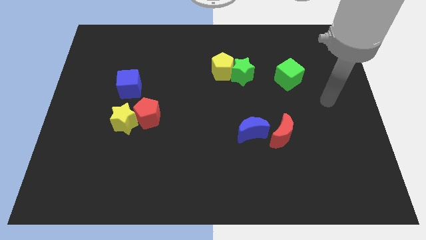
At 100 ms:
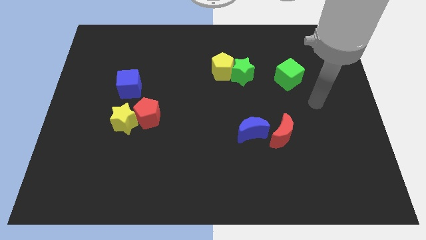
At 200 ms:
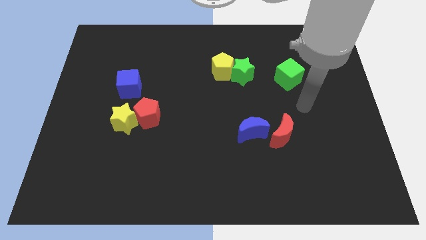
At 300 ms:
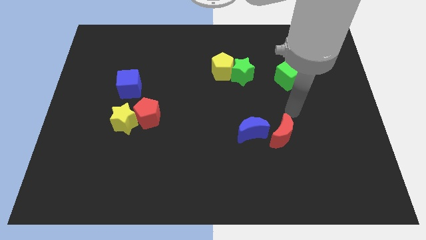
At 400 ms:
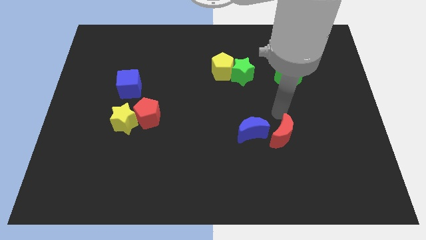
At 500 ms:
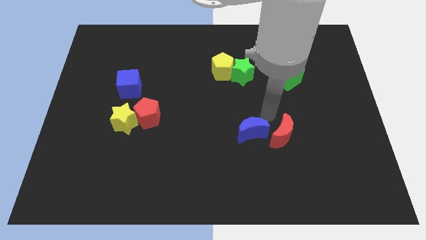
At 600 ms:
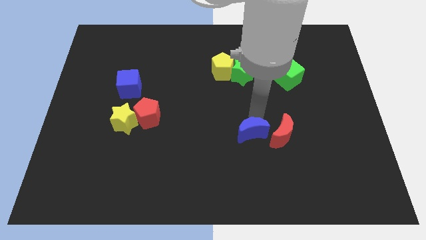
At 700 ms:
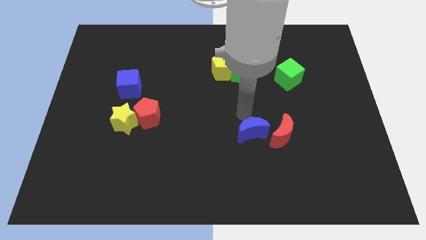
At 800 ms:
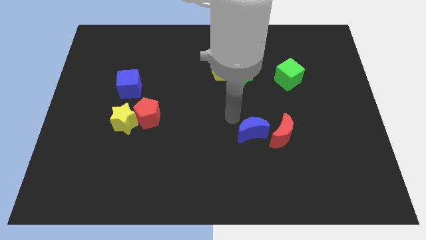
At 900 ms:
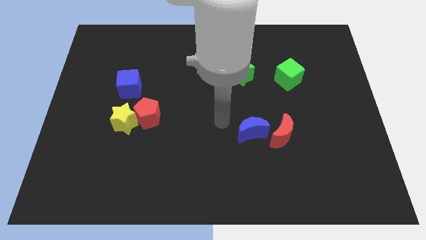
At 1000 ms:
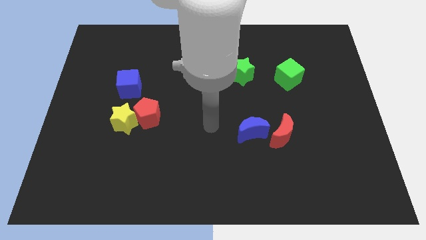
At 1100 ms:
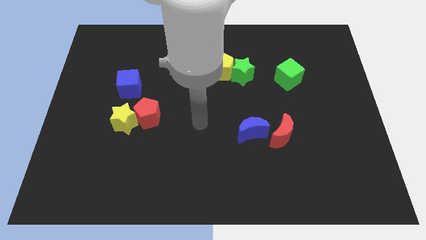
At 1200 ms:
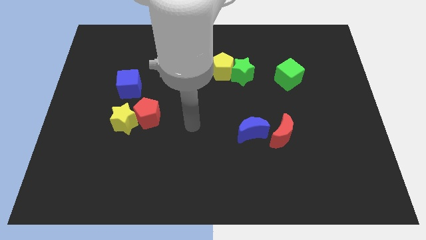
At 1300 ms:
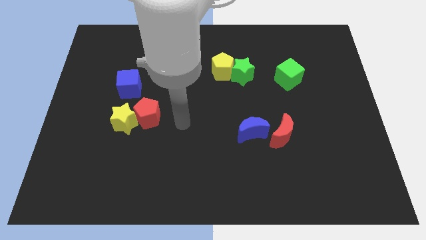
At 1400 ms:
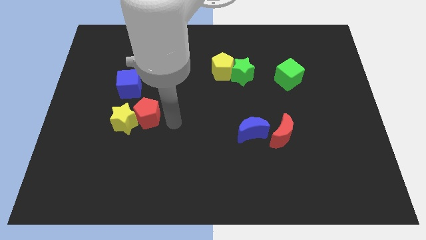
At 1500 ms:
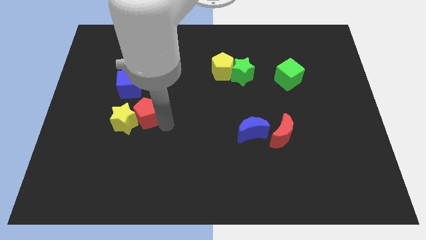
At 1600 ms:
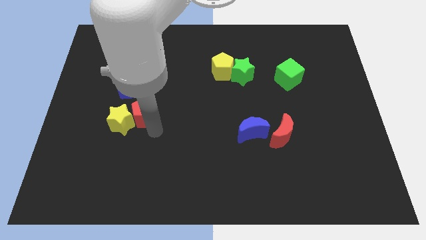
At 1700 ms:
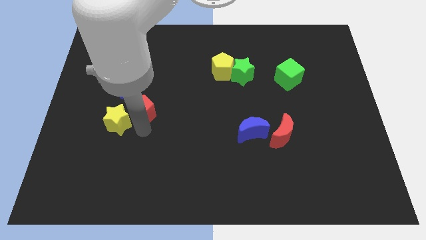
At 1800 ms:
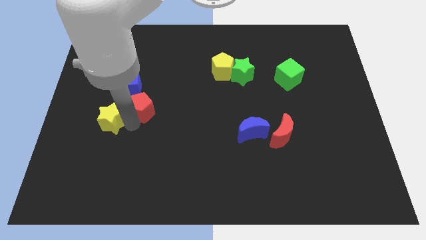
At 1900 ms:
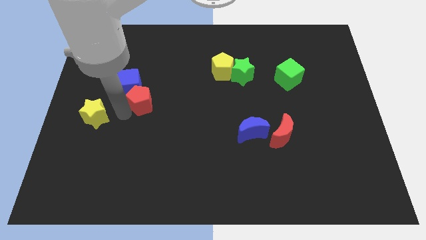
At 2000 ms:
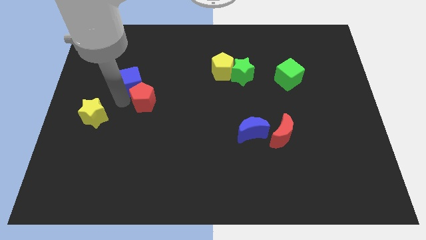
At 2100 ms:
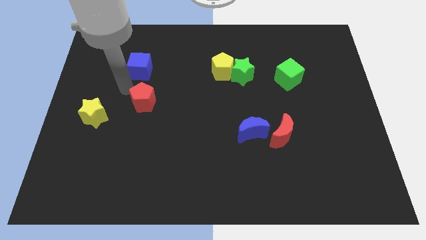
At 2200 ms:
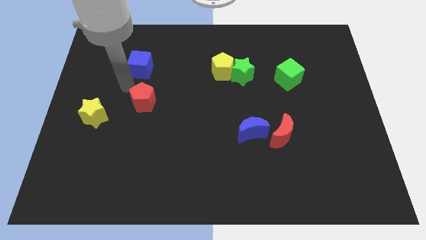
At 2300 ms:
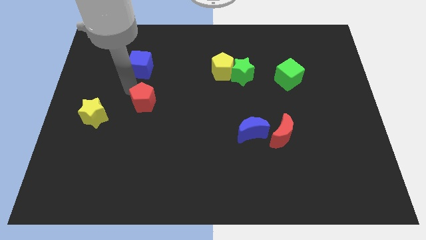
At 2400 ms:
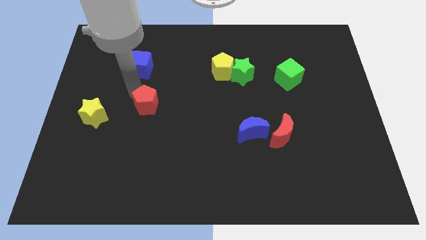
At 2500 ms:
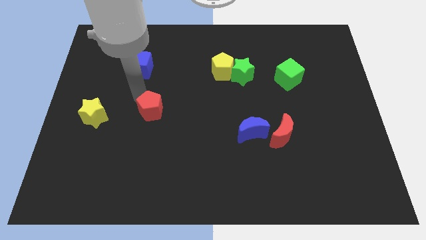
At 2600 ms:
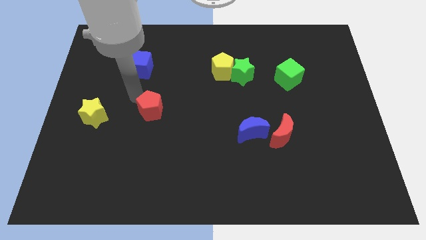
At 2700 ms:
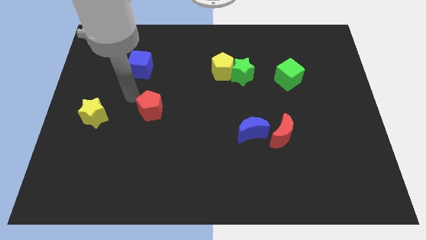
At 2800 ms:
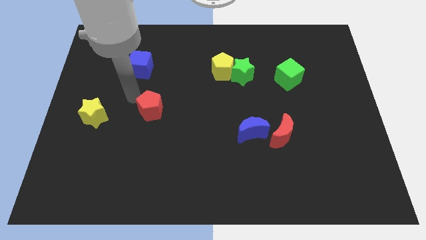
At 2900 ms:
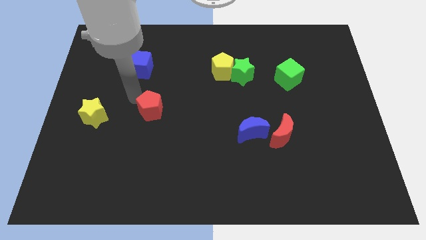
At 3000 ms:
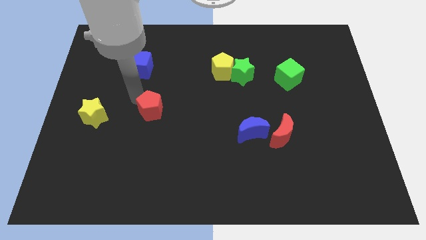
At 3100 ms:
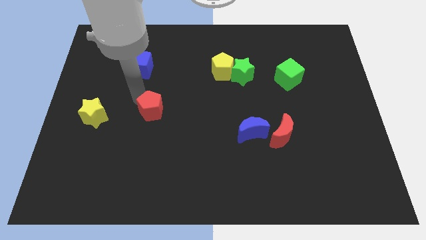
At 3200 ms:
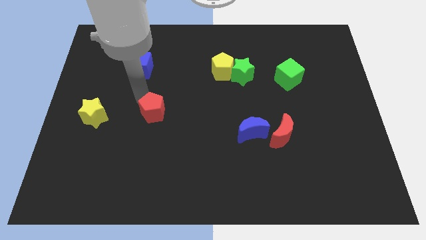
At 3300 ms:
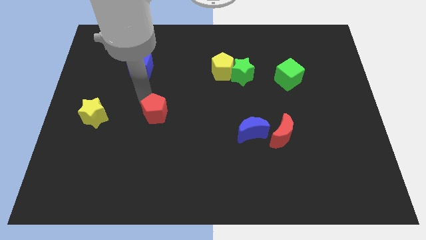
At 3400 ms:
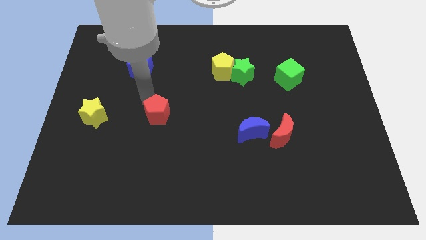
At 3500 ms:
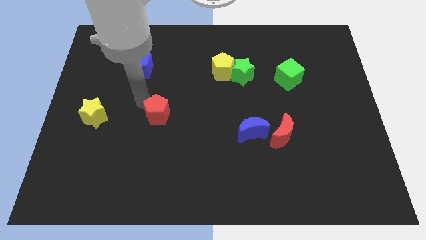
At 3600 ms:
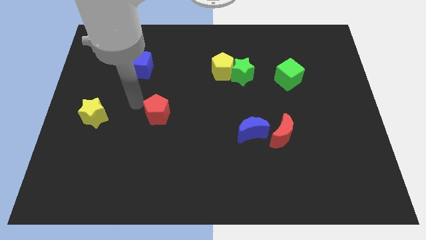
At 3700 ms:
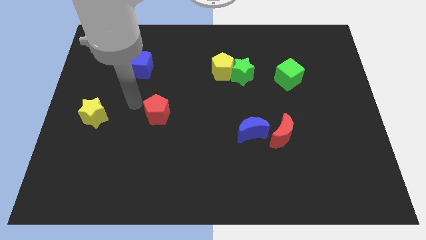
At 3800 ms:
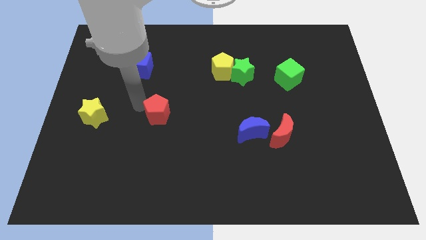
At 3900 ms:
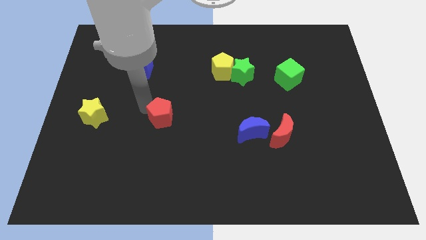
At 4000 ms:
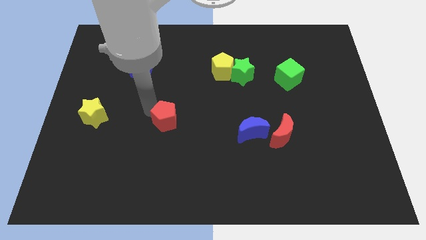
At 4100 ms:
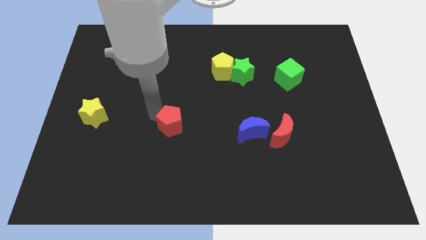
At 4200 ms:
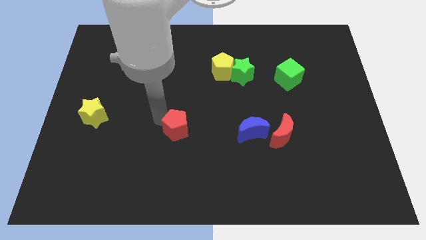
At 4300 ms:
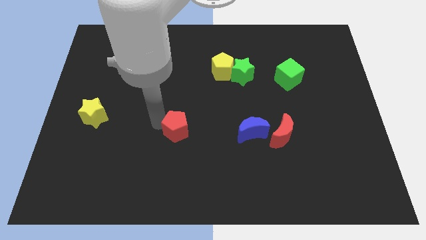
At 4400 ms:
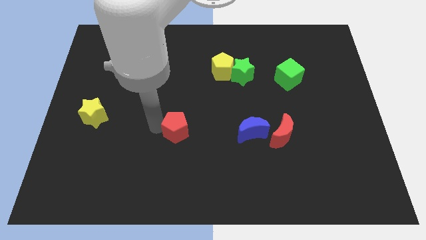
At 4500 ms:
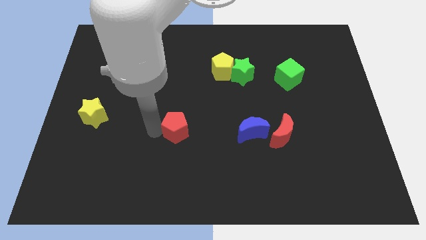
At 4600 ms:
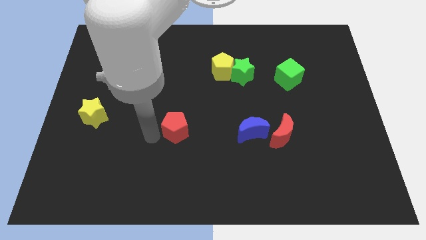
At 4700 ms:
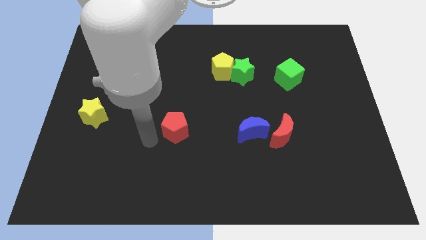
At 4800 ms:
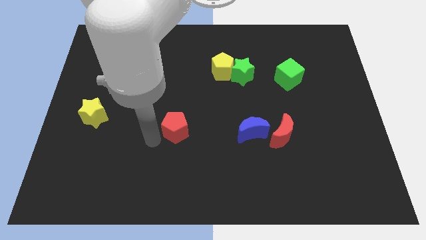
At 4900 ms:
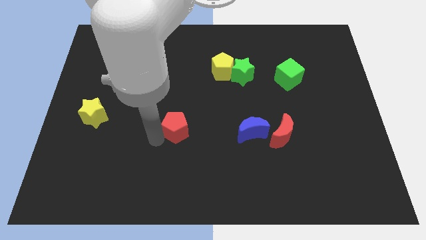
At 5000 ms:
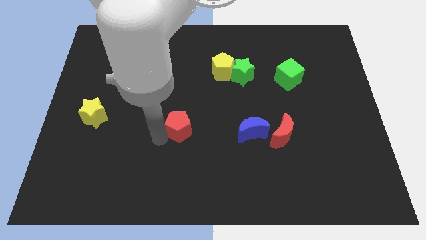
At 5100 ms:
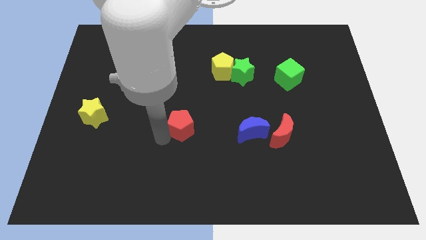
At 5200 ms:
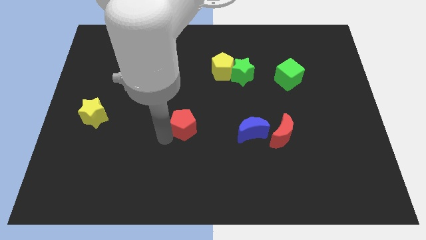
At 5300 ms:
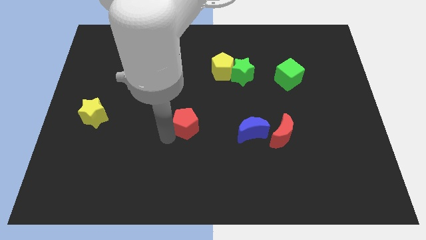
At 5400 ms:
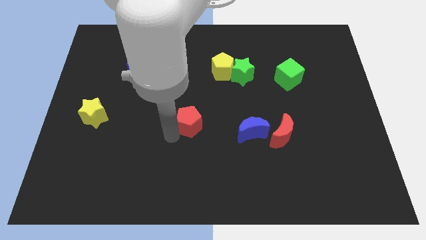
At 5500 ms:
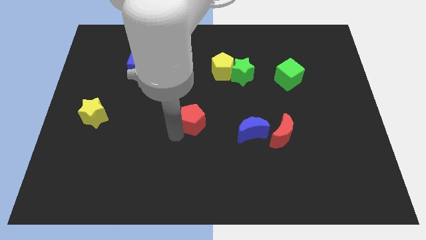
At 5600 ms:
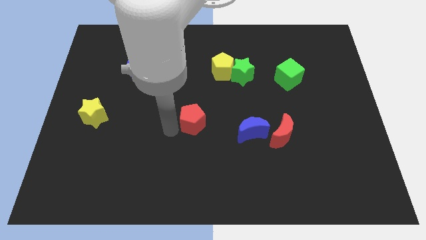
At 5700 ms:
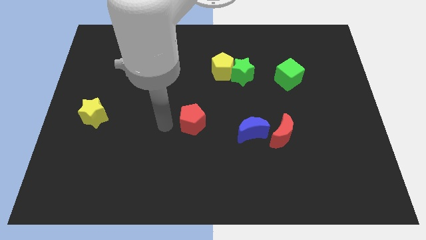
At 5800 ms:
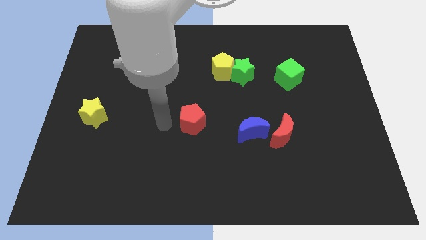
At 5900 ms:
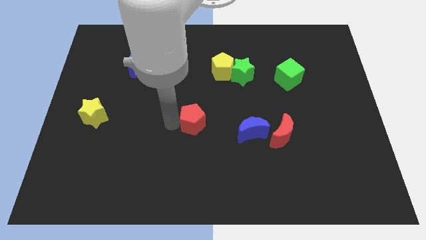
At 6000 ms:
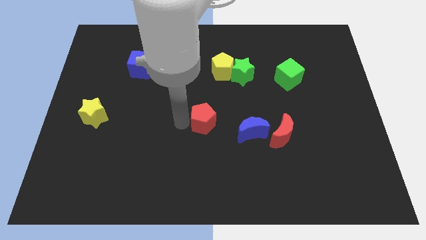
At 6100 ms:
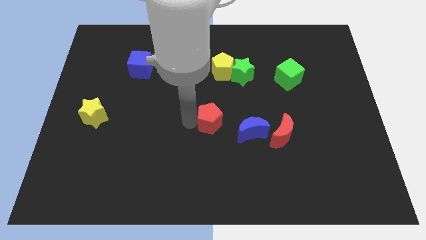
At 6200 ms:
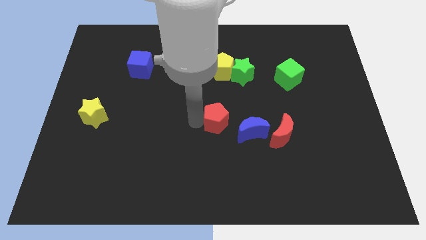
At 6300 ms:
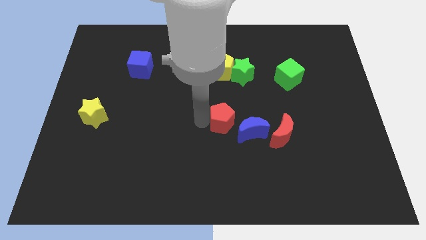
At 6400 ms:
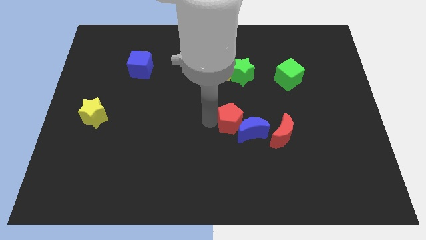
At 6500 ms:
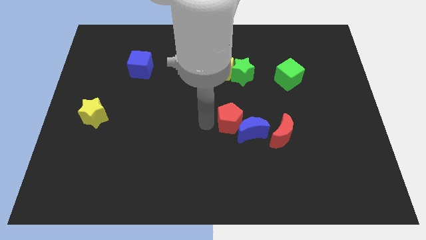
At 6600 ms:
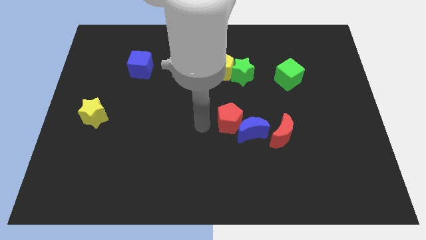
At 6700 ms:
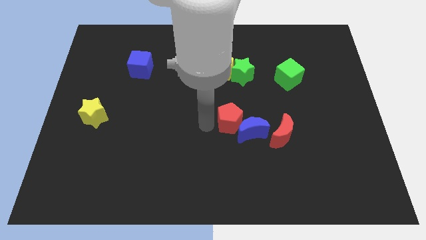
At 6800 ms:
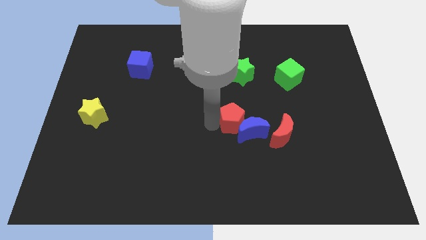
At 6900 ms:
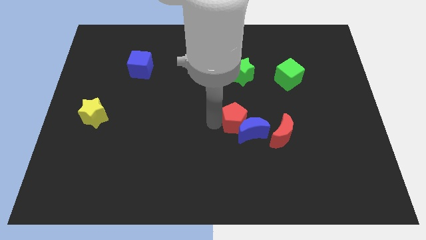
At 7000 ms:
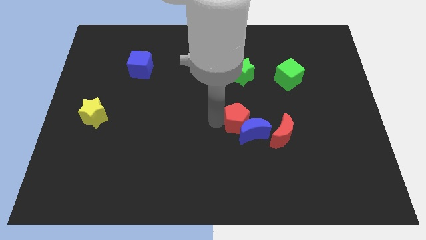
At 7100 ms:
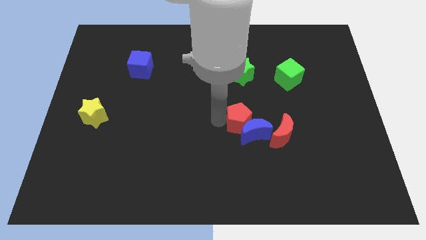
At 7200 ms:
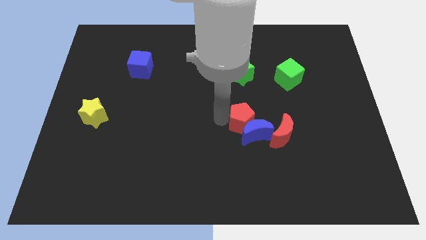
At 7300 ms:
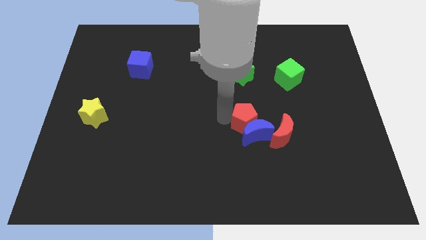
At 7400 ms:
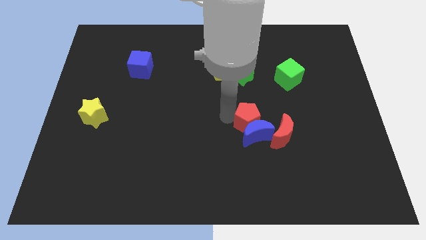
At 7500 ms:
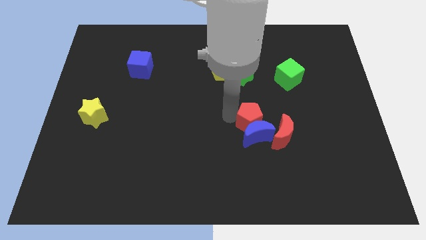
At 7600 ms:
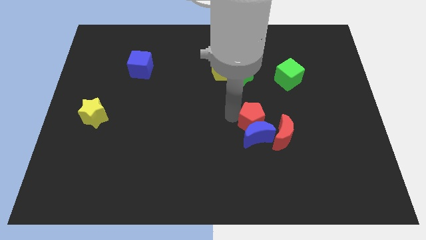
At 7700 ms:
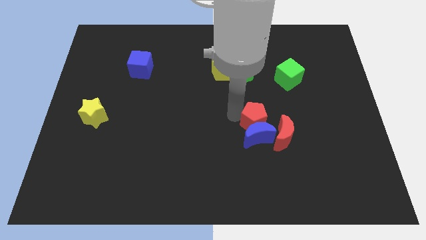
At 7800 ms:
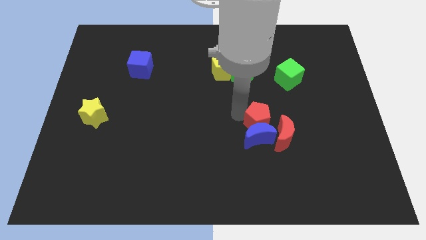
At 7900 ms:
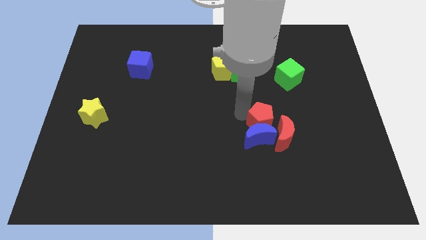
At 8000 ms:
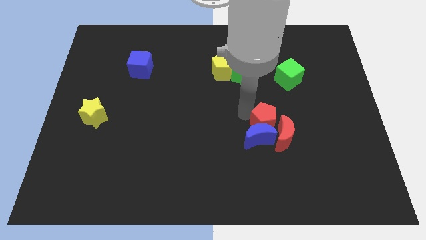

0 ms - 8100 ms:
put the red pentagon close to the red moon
